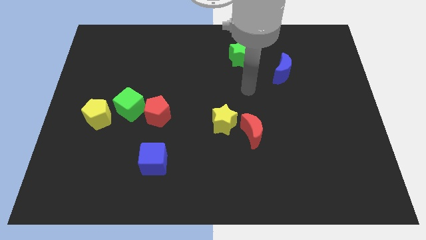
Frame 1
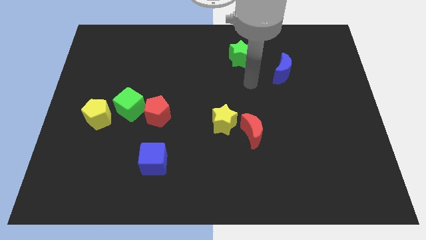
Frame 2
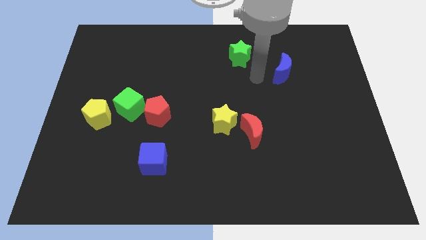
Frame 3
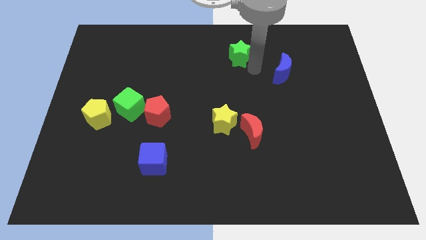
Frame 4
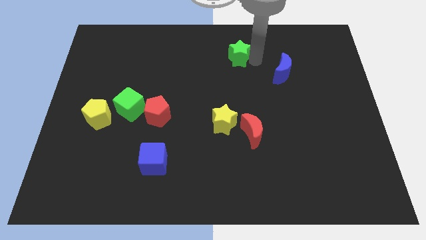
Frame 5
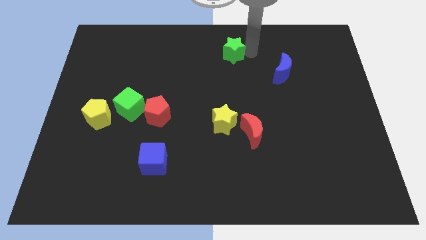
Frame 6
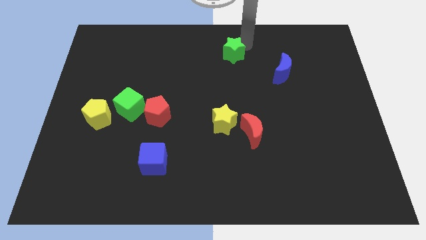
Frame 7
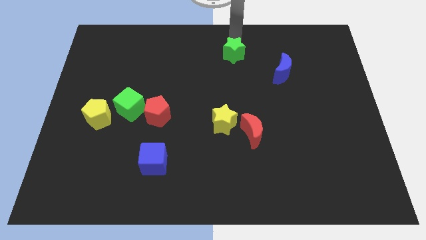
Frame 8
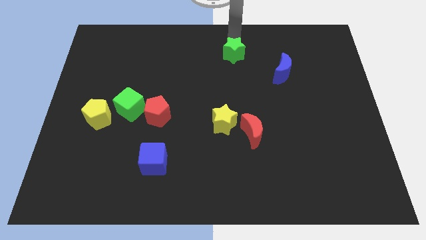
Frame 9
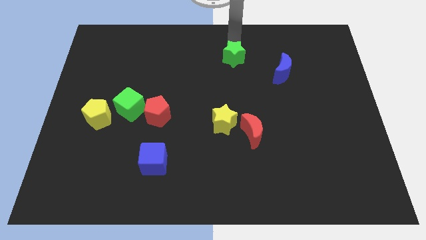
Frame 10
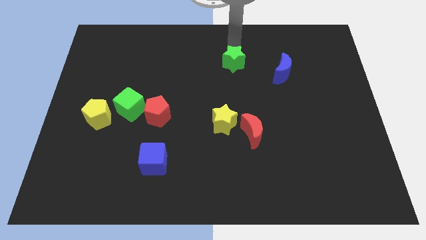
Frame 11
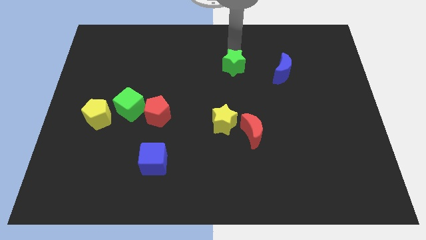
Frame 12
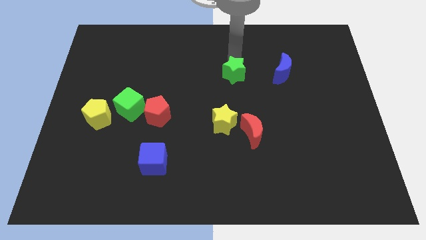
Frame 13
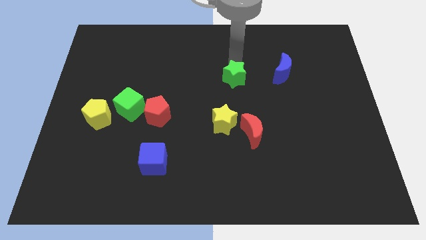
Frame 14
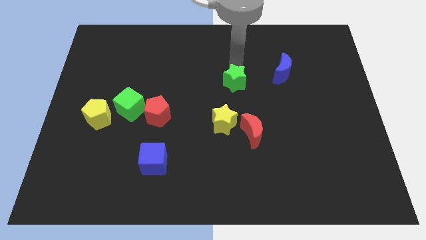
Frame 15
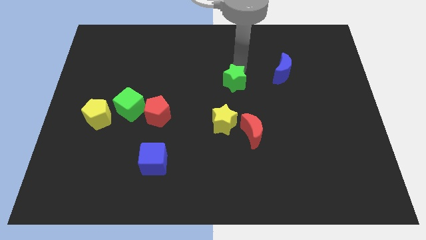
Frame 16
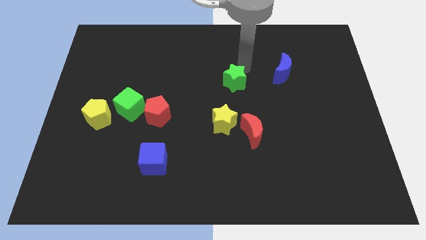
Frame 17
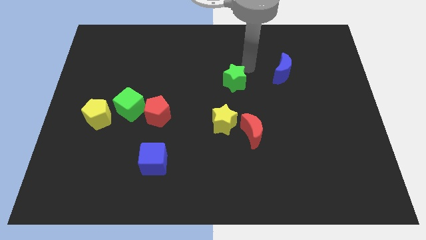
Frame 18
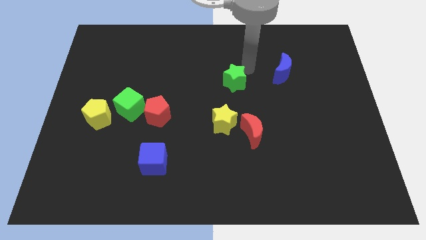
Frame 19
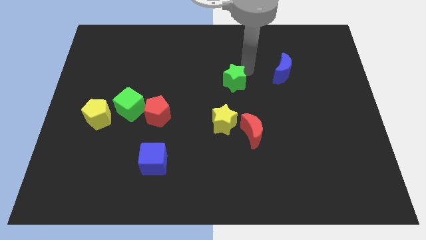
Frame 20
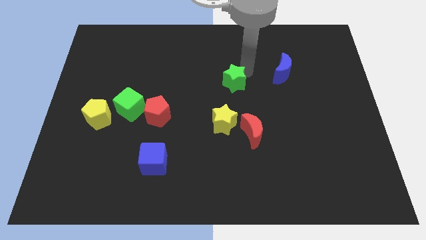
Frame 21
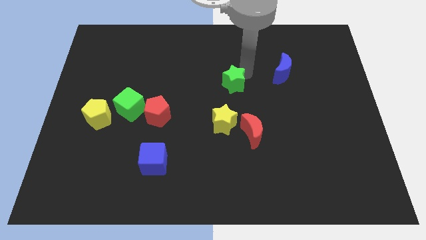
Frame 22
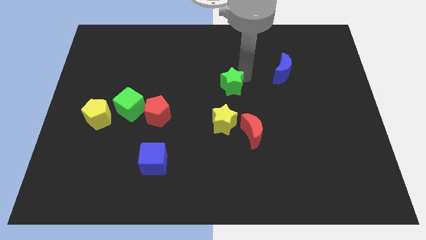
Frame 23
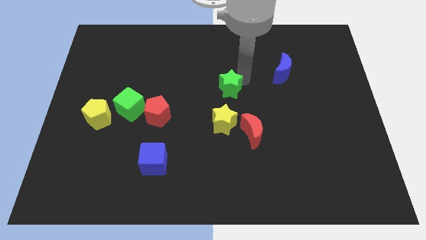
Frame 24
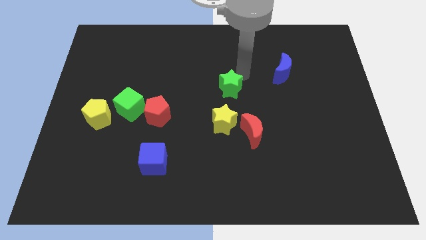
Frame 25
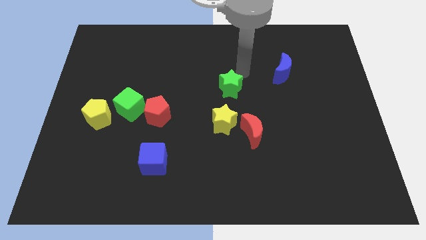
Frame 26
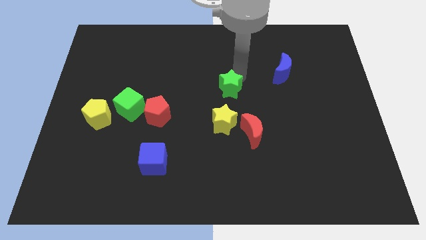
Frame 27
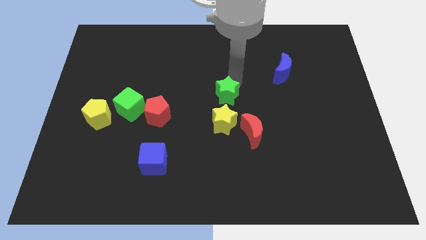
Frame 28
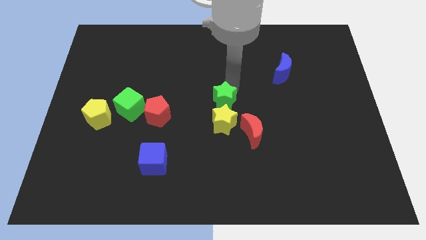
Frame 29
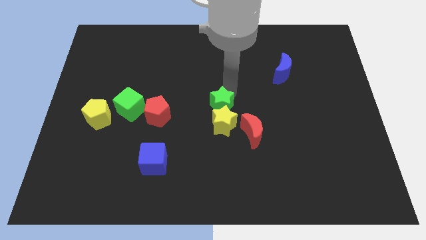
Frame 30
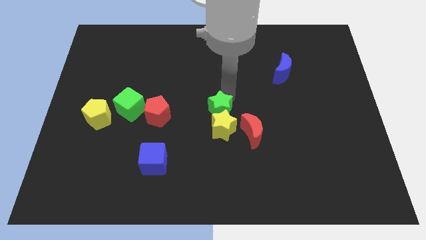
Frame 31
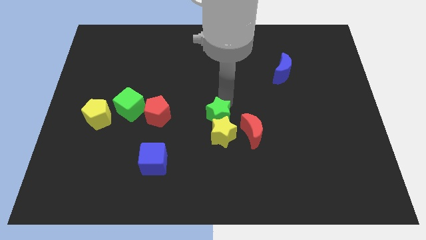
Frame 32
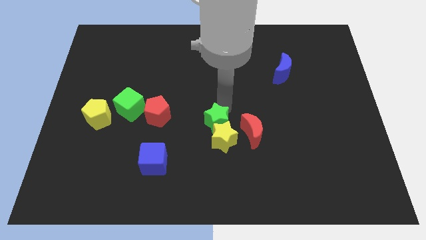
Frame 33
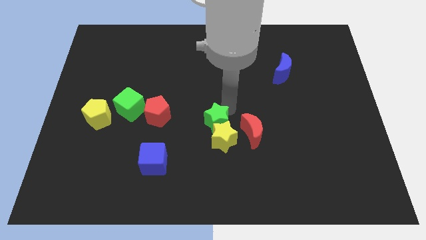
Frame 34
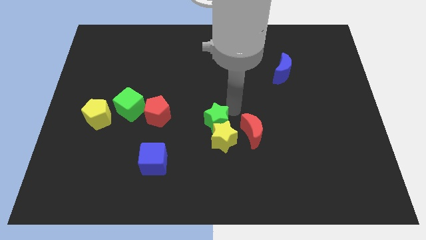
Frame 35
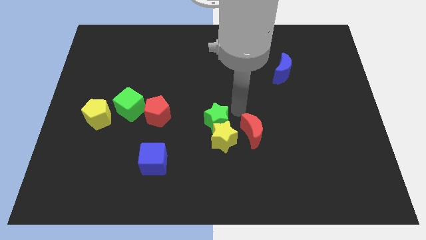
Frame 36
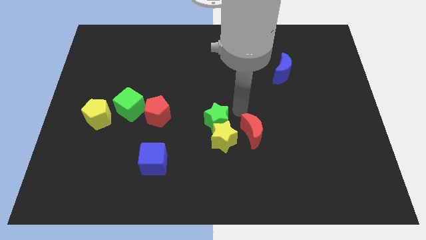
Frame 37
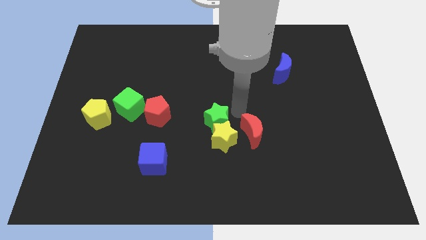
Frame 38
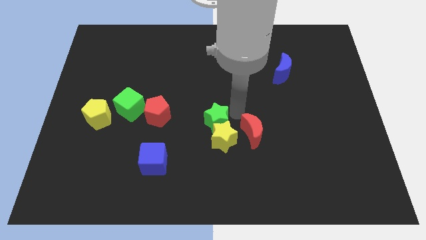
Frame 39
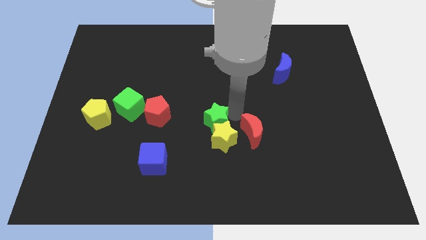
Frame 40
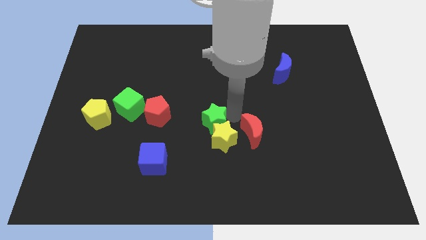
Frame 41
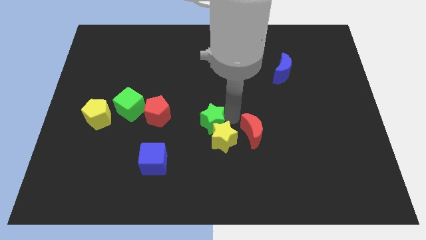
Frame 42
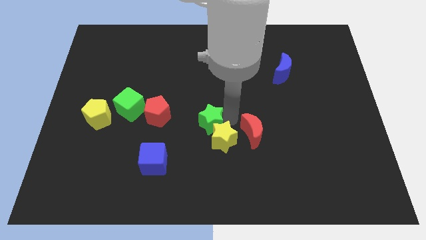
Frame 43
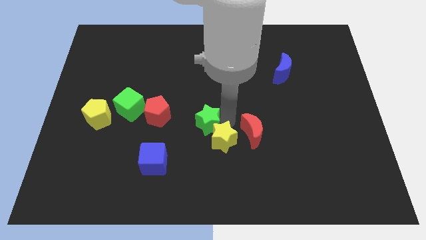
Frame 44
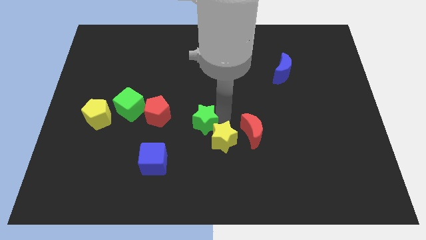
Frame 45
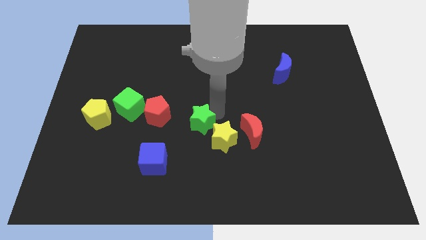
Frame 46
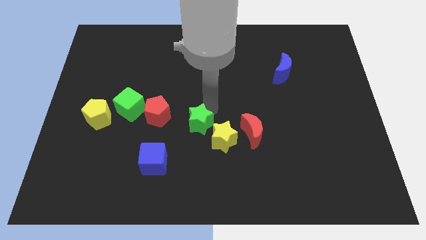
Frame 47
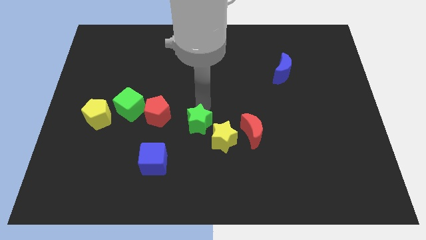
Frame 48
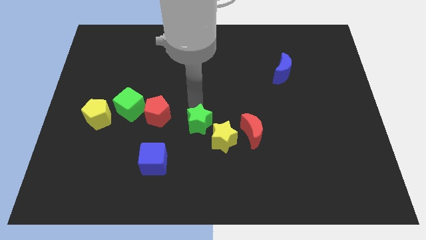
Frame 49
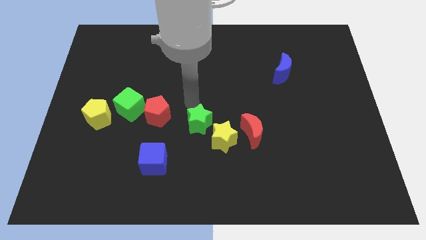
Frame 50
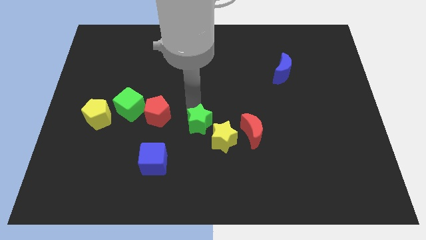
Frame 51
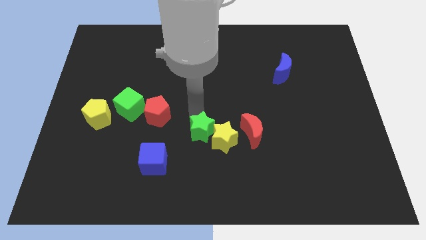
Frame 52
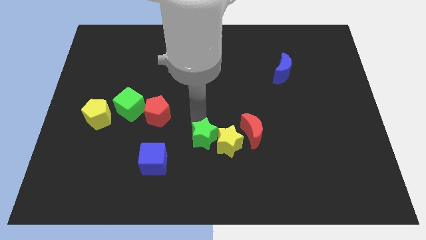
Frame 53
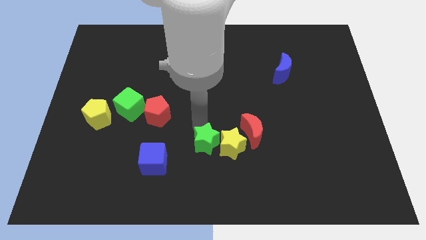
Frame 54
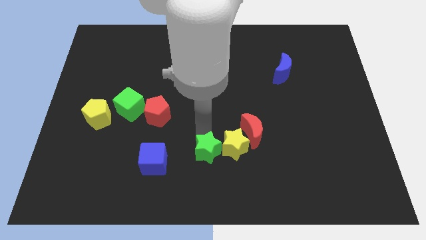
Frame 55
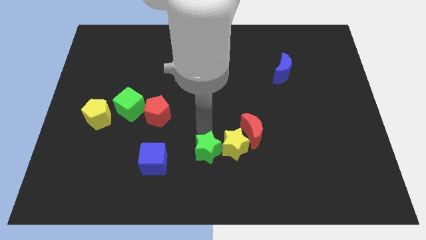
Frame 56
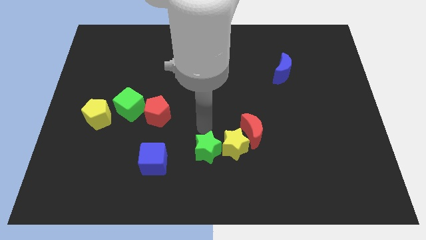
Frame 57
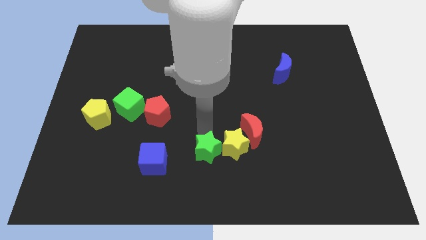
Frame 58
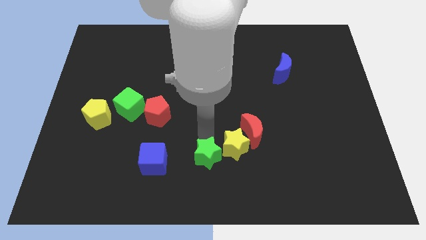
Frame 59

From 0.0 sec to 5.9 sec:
slide the green star to the bottom side

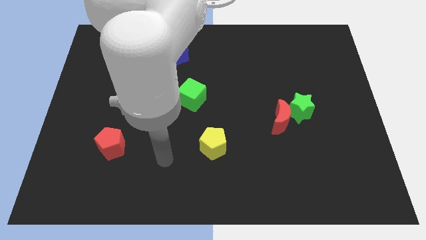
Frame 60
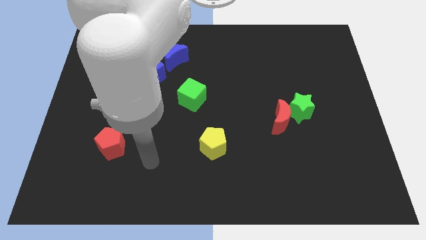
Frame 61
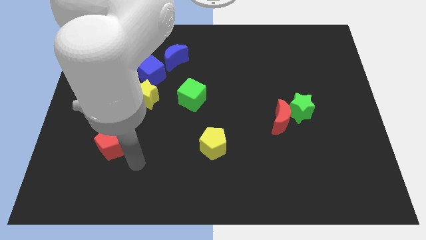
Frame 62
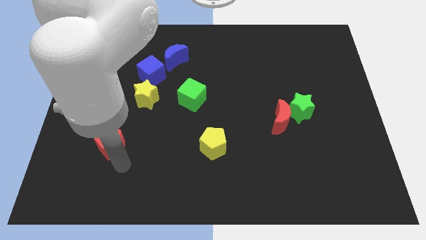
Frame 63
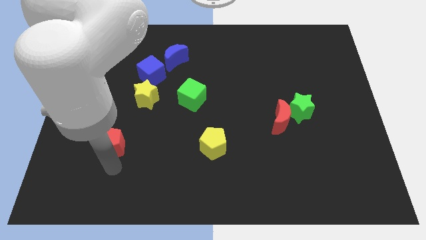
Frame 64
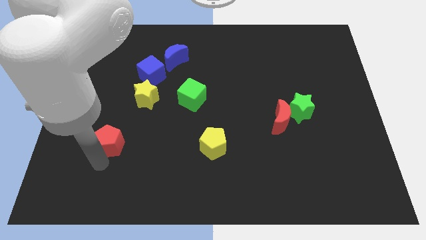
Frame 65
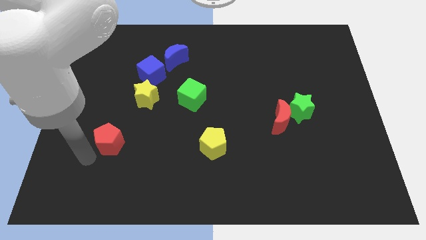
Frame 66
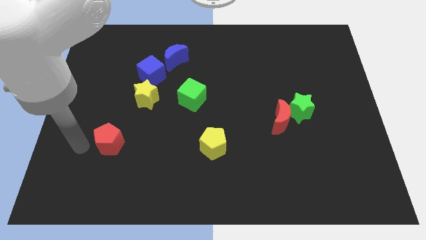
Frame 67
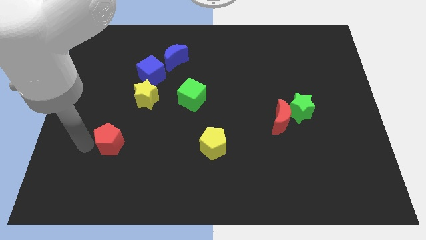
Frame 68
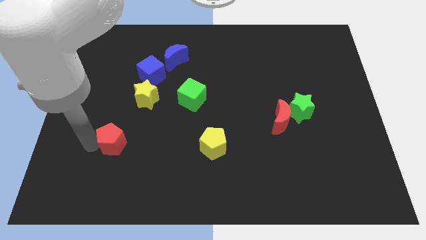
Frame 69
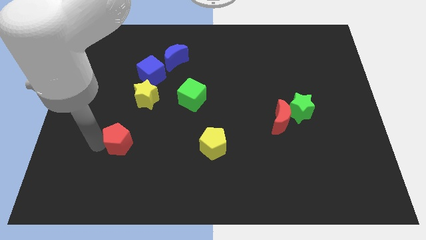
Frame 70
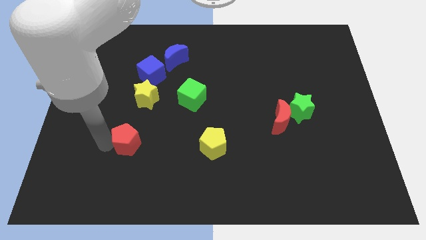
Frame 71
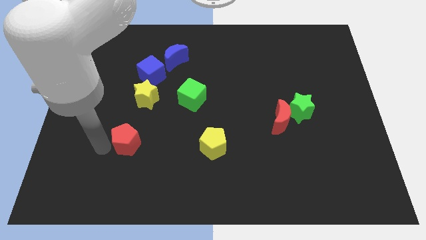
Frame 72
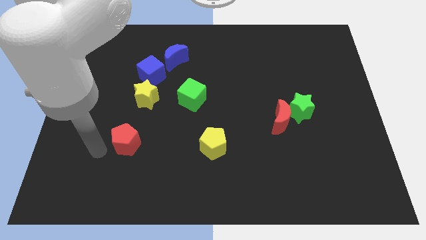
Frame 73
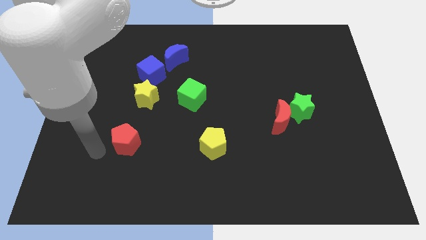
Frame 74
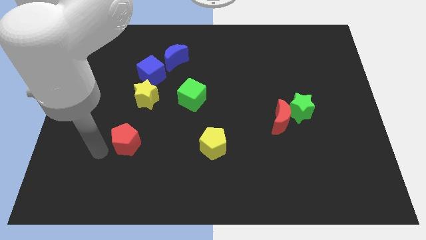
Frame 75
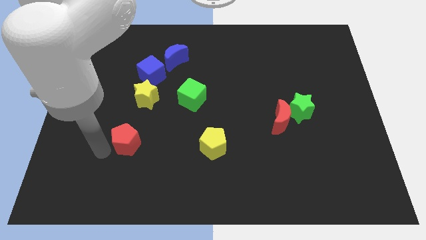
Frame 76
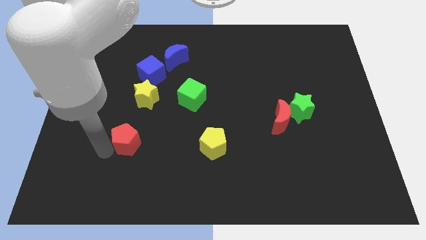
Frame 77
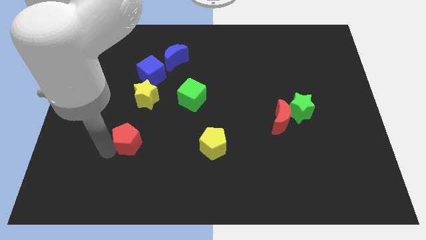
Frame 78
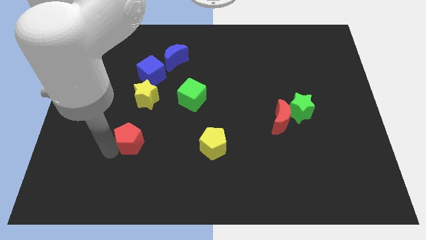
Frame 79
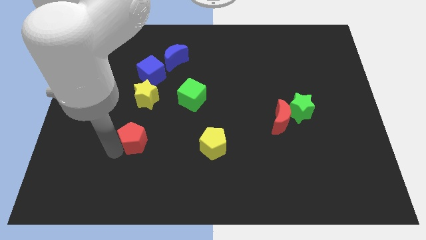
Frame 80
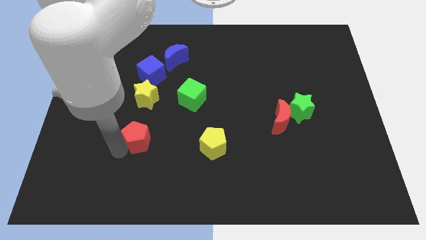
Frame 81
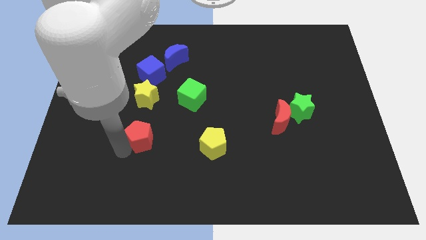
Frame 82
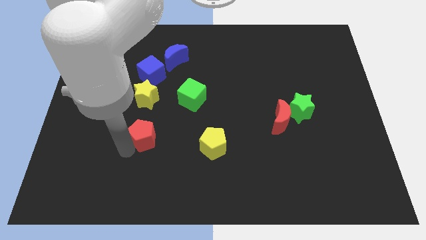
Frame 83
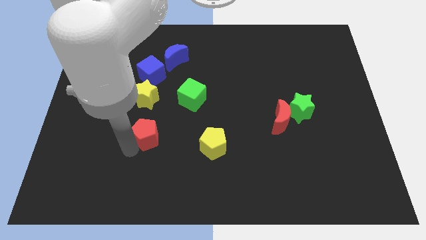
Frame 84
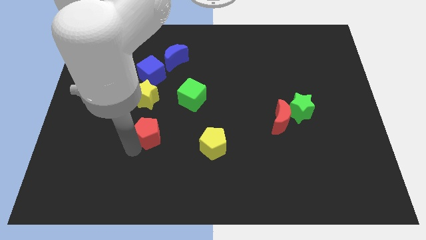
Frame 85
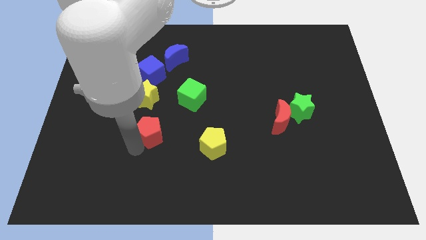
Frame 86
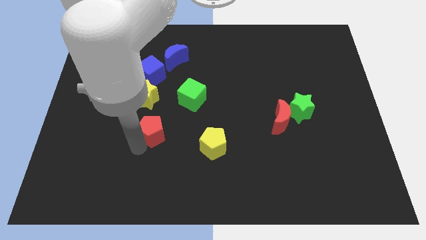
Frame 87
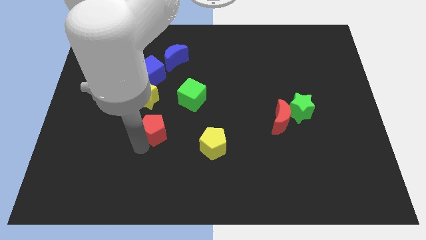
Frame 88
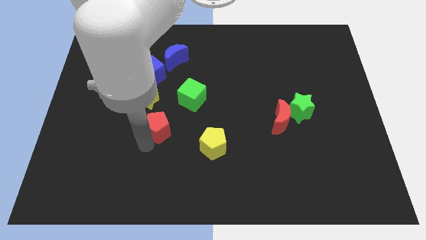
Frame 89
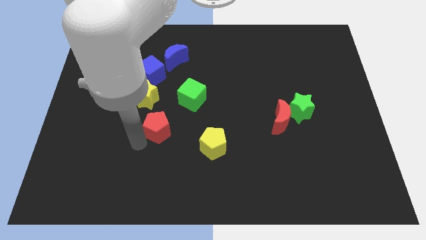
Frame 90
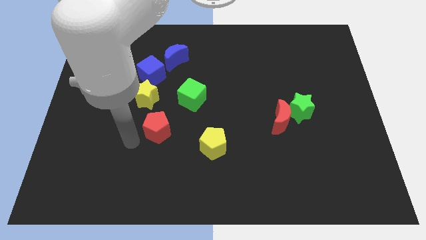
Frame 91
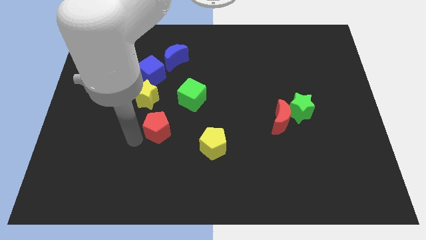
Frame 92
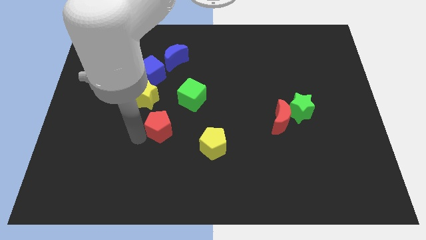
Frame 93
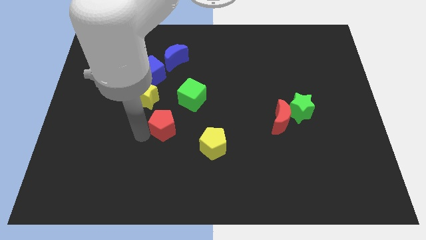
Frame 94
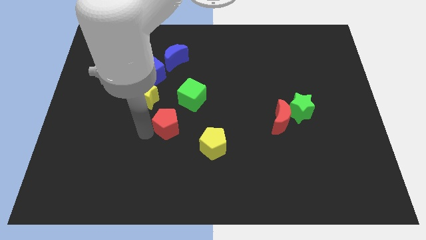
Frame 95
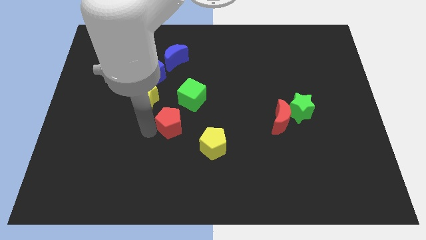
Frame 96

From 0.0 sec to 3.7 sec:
push the red pentagon to the center
